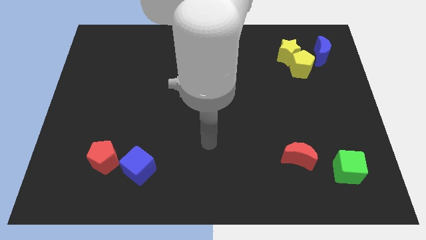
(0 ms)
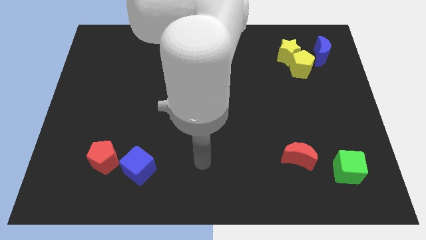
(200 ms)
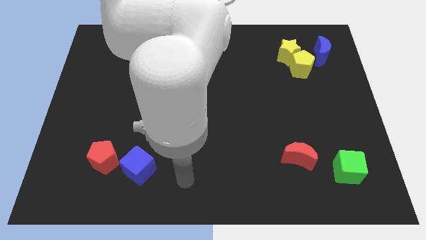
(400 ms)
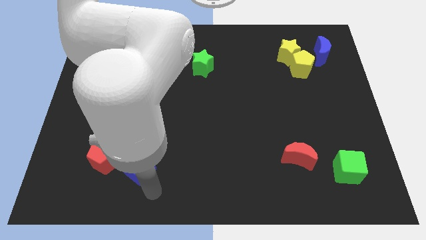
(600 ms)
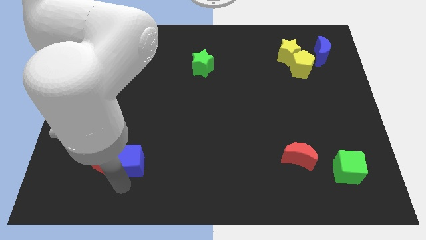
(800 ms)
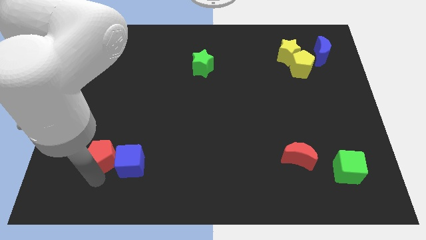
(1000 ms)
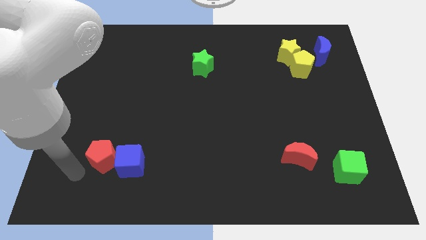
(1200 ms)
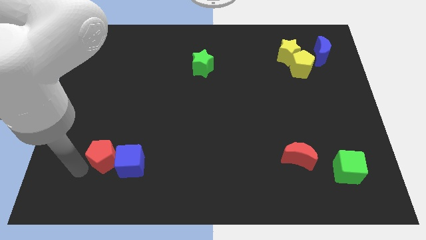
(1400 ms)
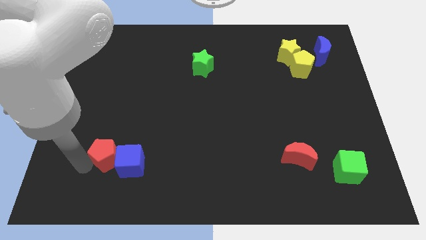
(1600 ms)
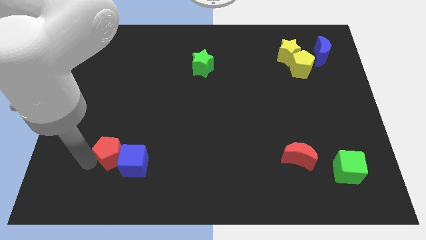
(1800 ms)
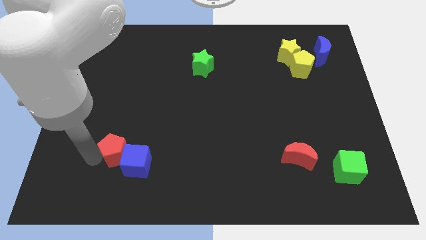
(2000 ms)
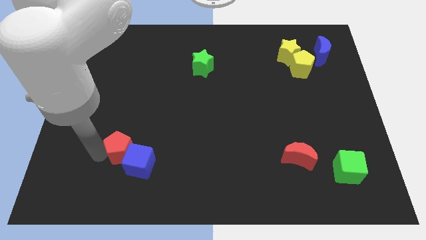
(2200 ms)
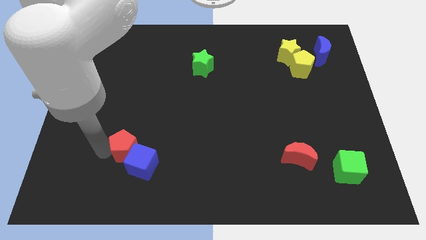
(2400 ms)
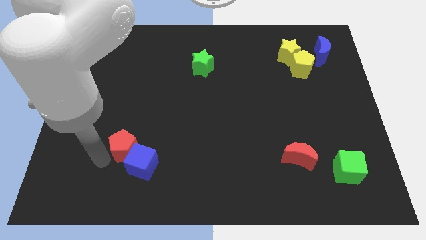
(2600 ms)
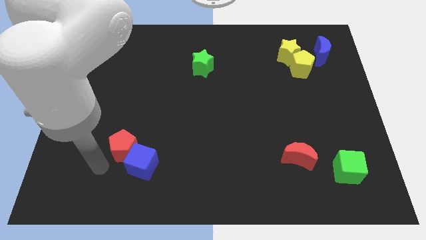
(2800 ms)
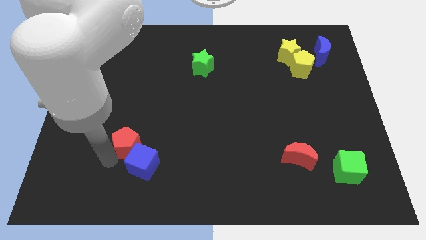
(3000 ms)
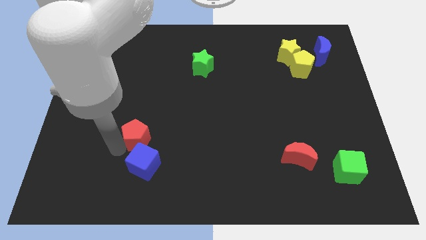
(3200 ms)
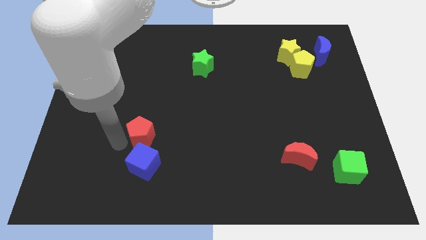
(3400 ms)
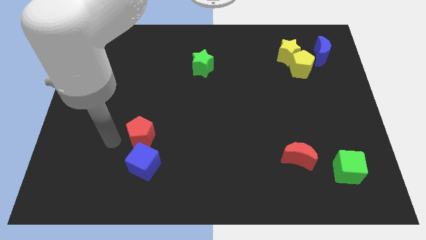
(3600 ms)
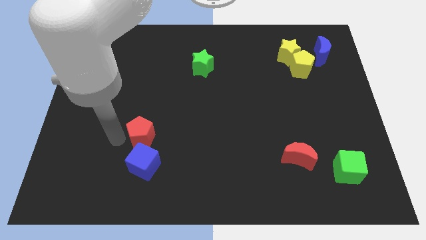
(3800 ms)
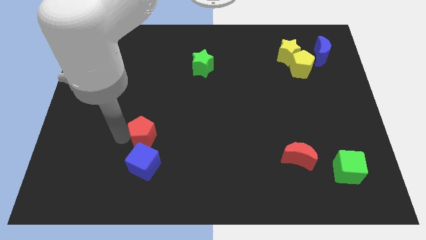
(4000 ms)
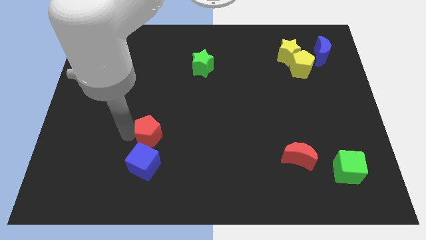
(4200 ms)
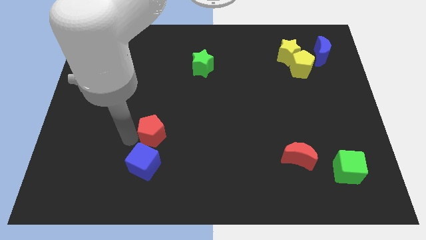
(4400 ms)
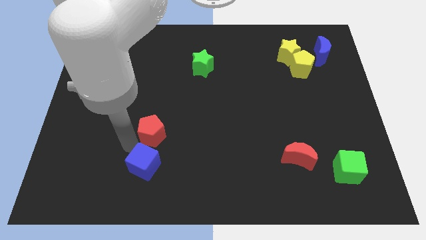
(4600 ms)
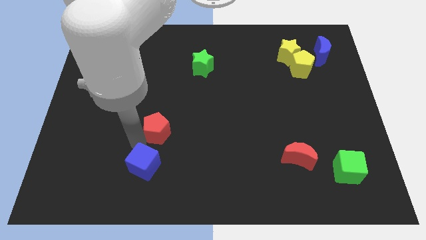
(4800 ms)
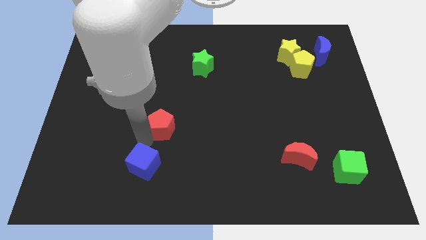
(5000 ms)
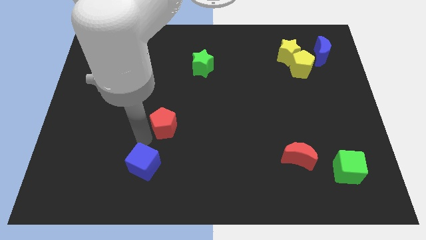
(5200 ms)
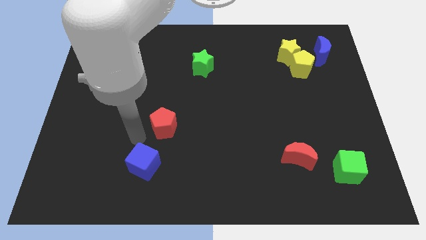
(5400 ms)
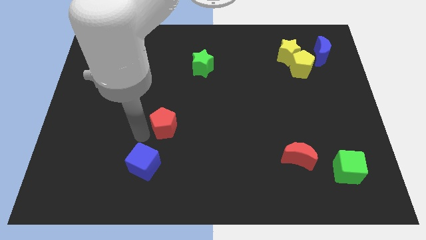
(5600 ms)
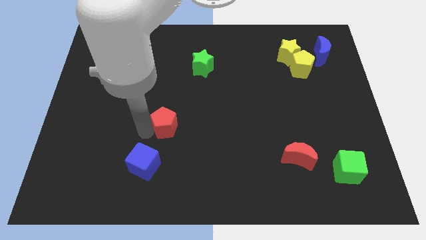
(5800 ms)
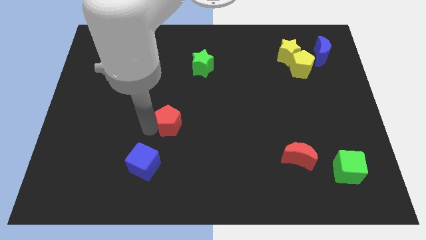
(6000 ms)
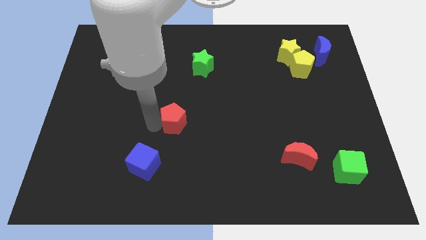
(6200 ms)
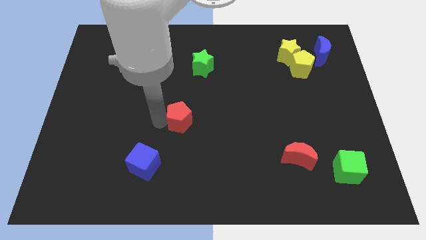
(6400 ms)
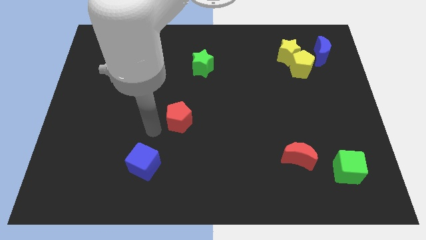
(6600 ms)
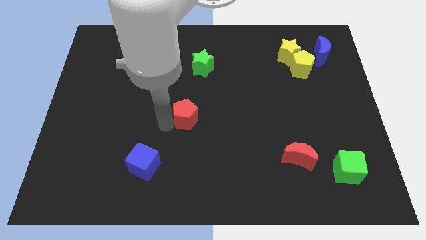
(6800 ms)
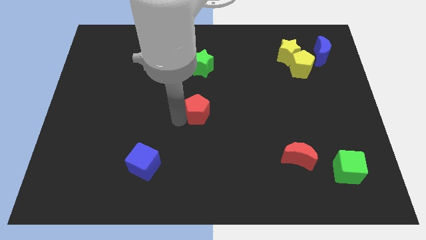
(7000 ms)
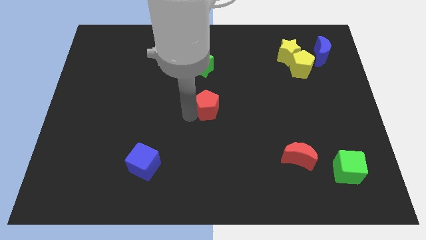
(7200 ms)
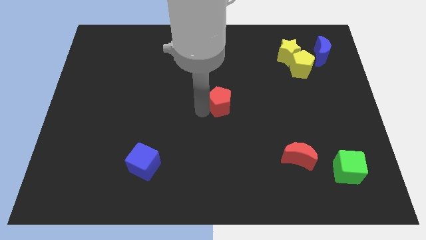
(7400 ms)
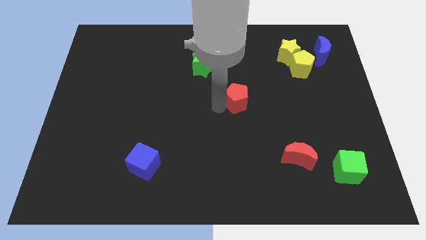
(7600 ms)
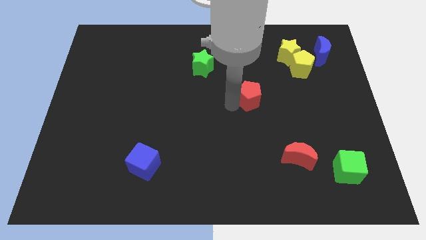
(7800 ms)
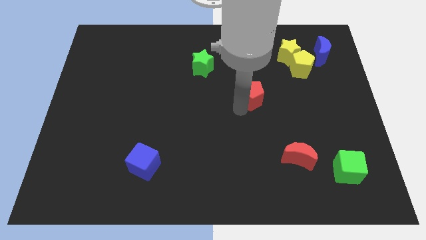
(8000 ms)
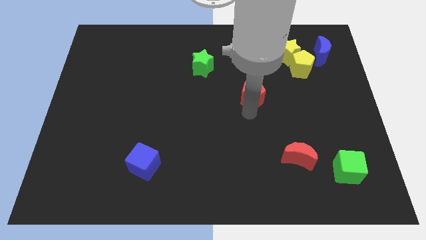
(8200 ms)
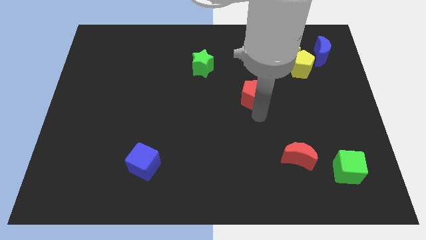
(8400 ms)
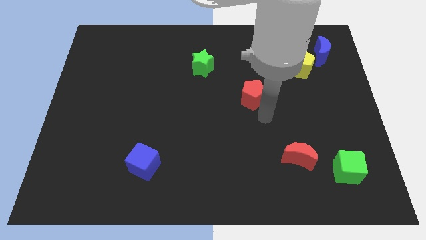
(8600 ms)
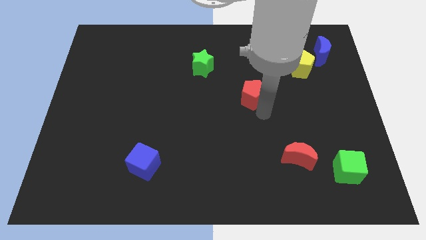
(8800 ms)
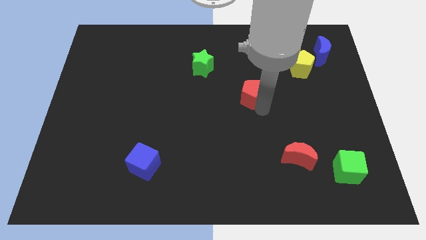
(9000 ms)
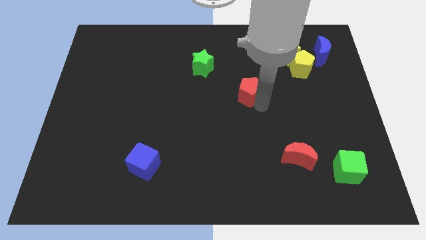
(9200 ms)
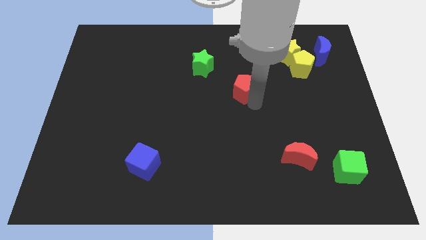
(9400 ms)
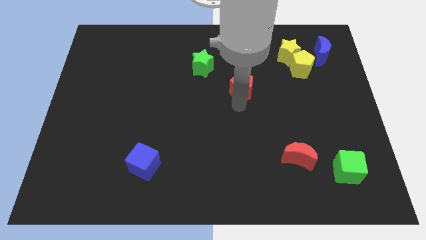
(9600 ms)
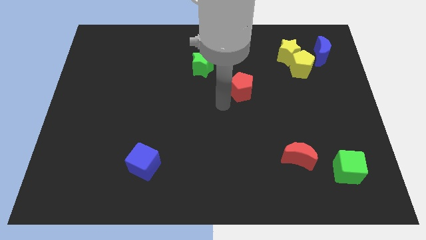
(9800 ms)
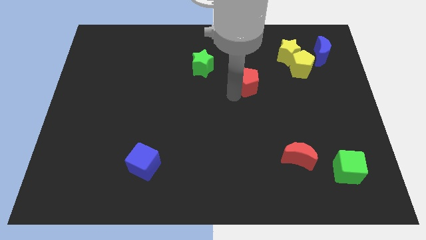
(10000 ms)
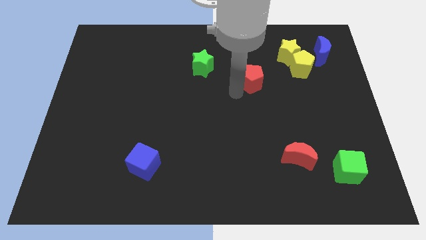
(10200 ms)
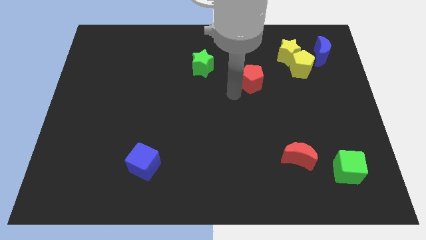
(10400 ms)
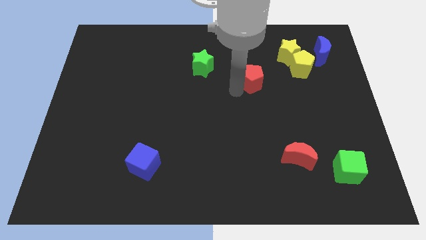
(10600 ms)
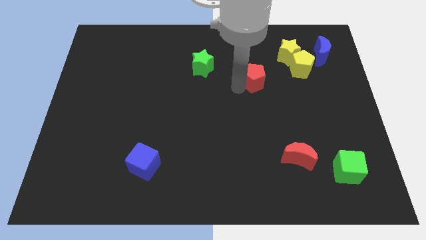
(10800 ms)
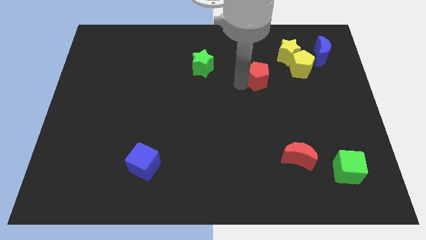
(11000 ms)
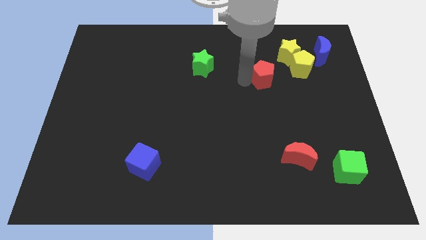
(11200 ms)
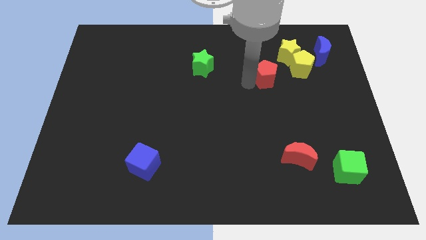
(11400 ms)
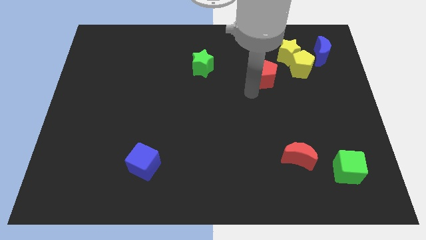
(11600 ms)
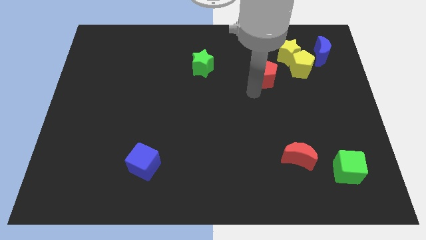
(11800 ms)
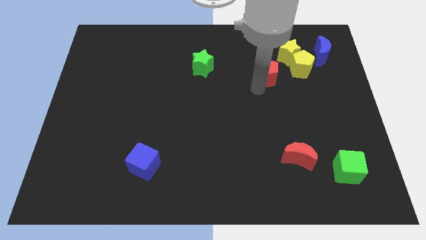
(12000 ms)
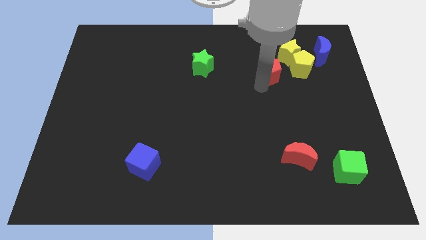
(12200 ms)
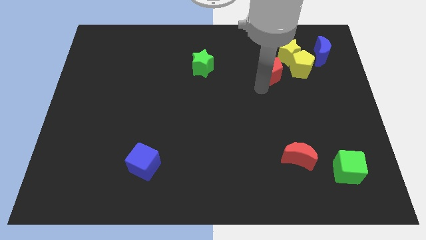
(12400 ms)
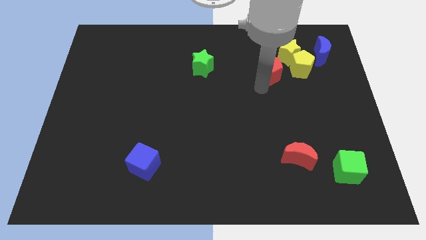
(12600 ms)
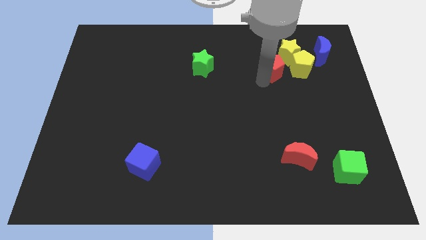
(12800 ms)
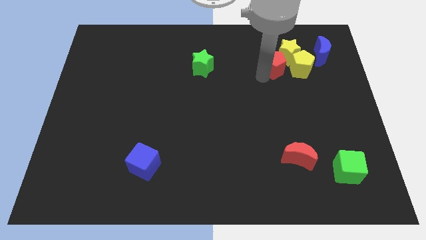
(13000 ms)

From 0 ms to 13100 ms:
slide the red pentagon close to the yellow star

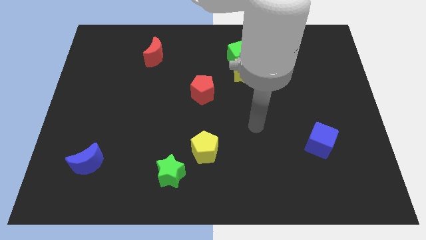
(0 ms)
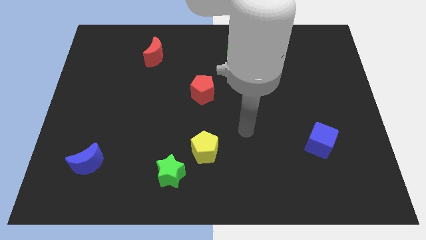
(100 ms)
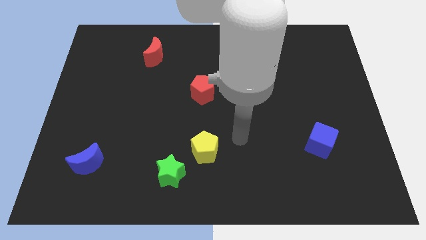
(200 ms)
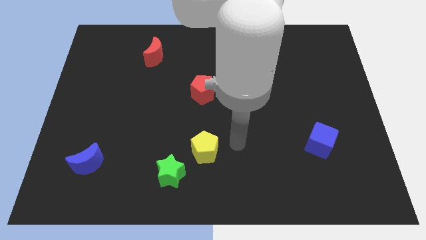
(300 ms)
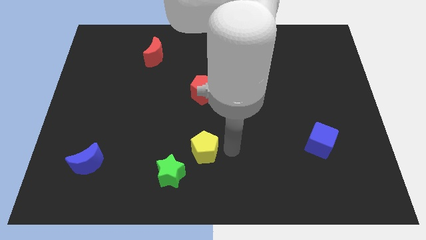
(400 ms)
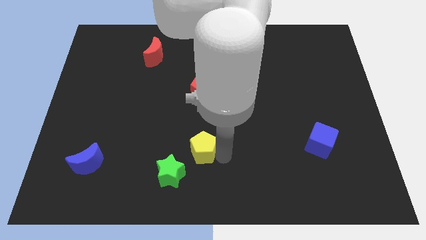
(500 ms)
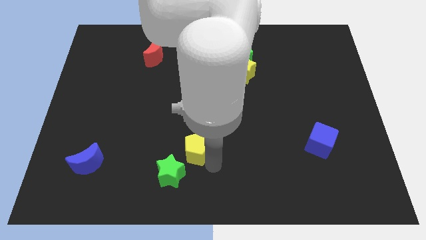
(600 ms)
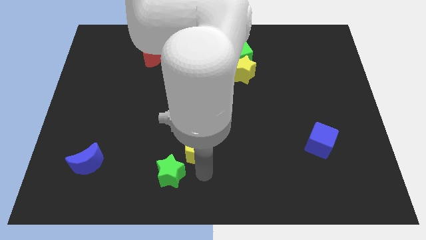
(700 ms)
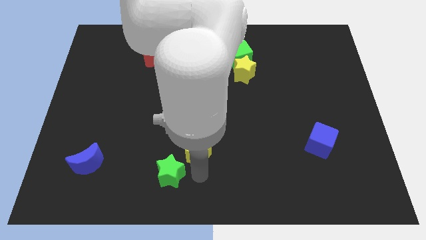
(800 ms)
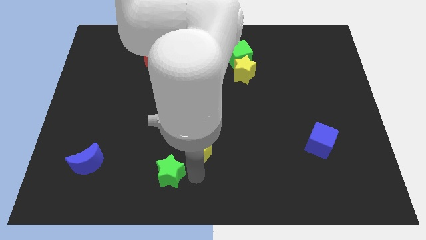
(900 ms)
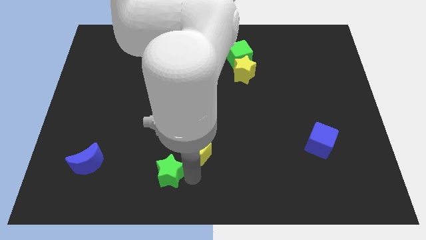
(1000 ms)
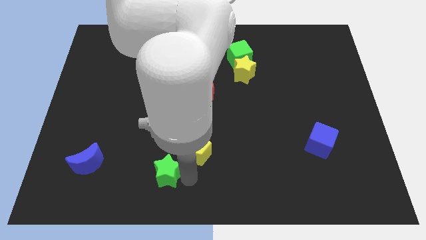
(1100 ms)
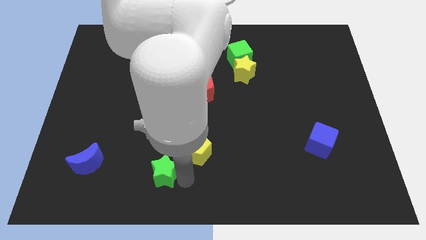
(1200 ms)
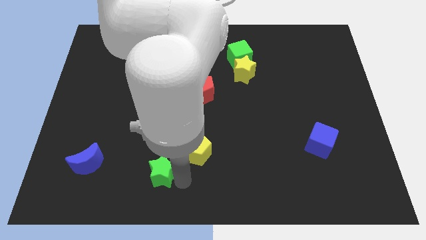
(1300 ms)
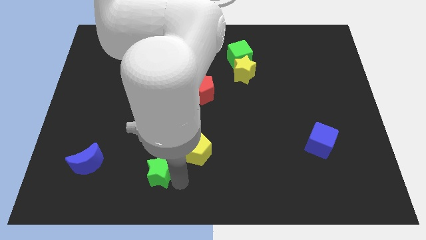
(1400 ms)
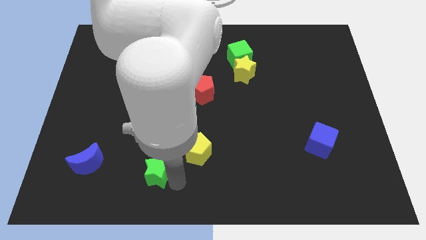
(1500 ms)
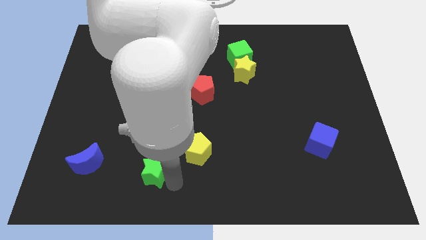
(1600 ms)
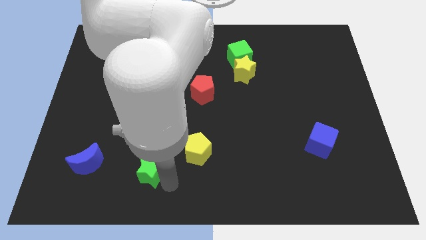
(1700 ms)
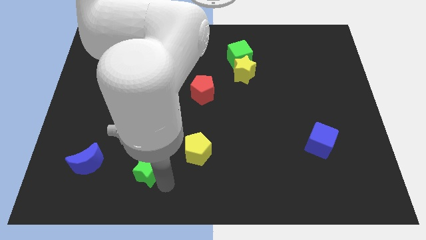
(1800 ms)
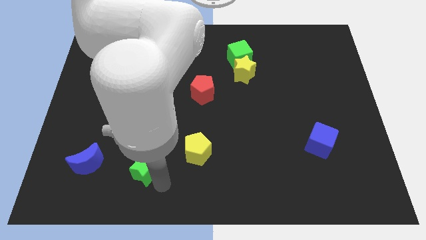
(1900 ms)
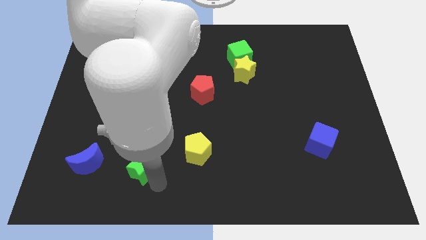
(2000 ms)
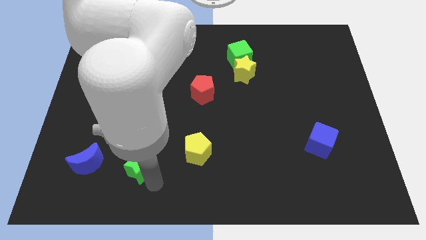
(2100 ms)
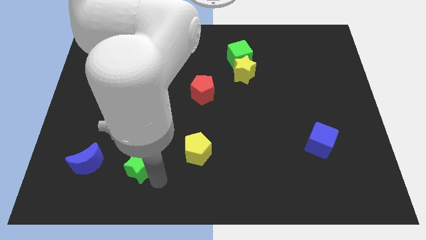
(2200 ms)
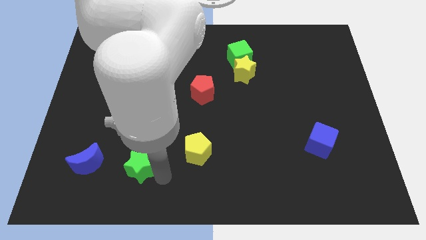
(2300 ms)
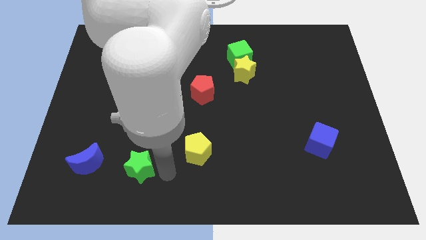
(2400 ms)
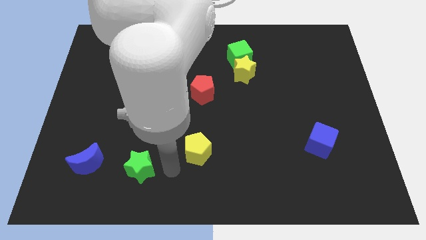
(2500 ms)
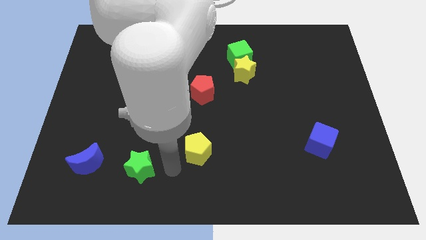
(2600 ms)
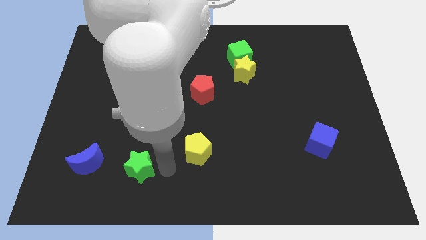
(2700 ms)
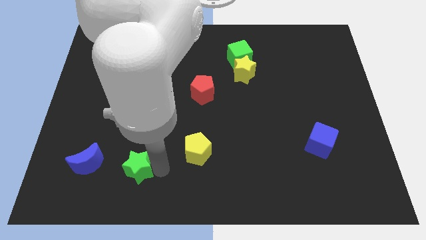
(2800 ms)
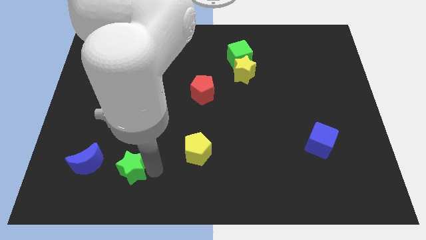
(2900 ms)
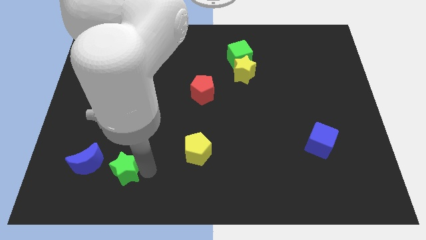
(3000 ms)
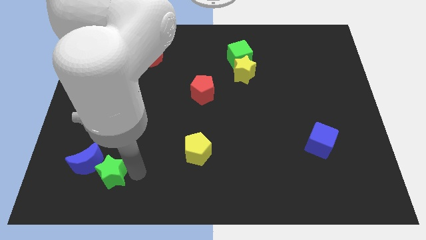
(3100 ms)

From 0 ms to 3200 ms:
move the green star close to the blue moon
